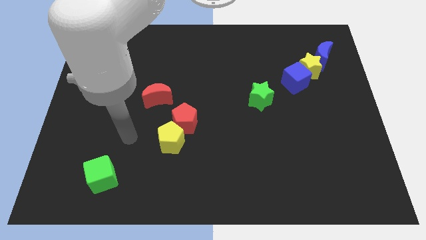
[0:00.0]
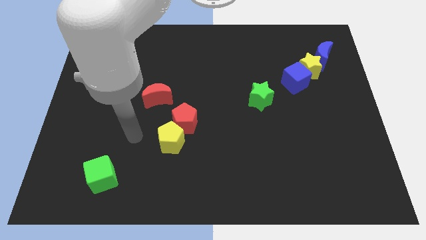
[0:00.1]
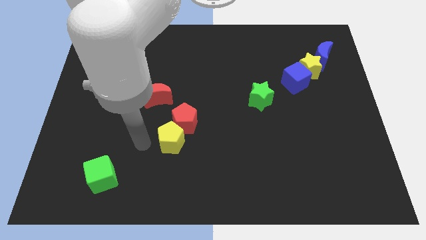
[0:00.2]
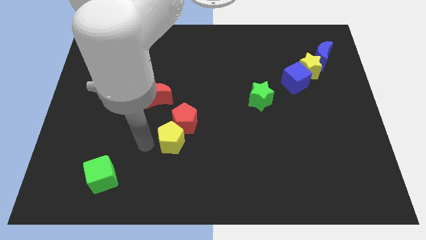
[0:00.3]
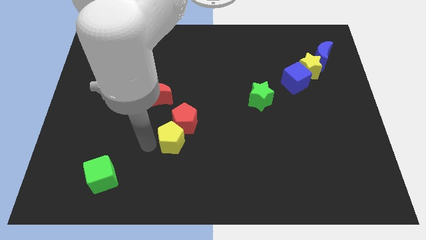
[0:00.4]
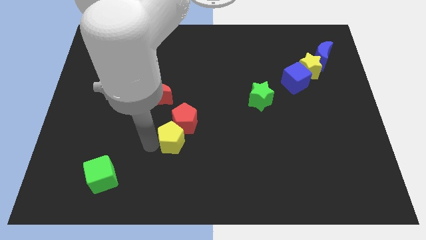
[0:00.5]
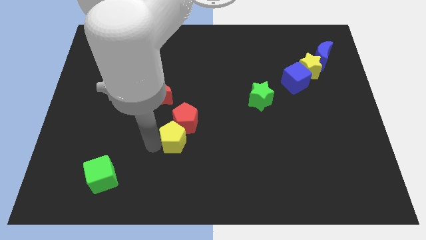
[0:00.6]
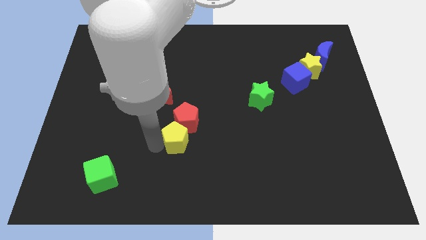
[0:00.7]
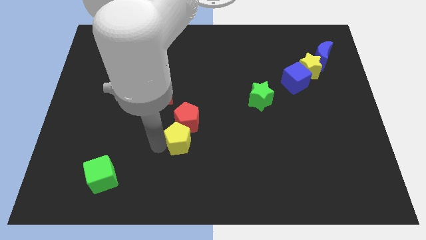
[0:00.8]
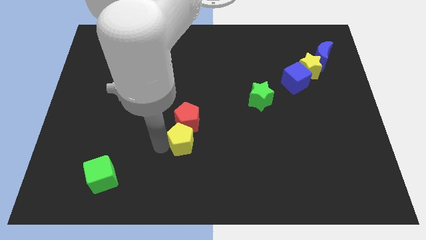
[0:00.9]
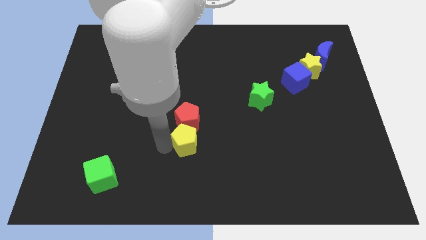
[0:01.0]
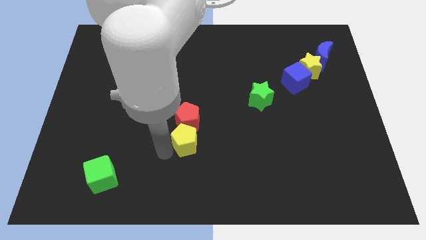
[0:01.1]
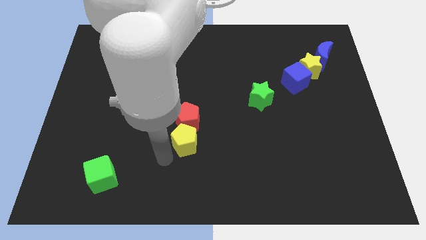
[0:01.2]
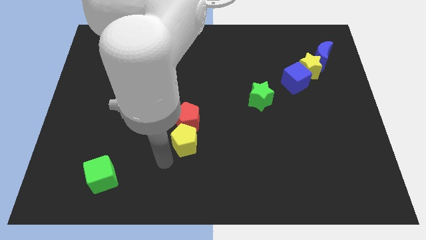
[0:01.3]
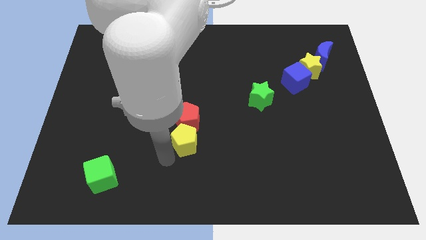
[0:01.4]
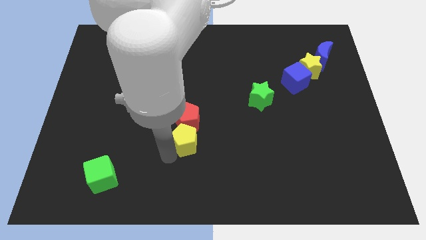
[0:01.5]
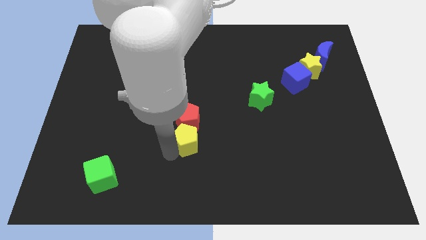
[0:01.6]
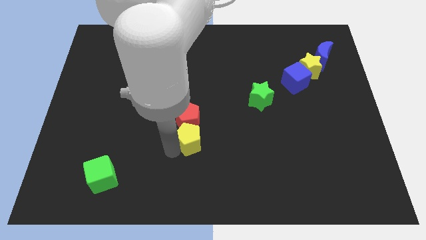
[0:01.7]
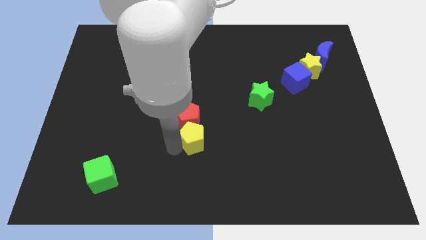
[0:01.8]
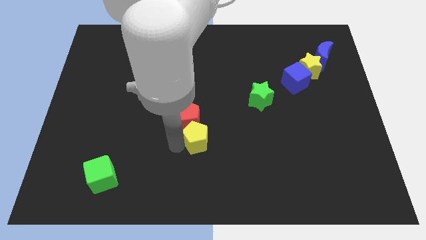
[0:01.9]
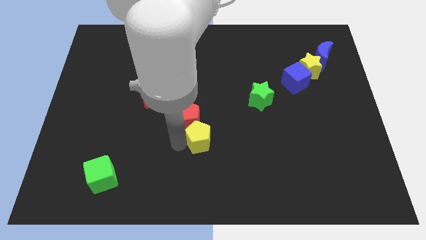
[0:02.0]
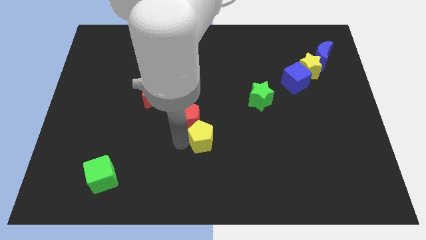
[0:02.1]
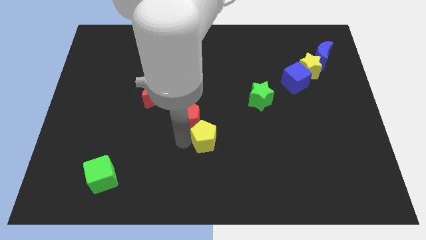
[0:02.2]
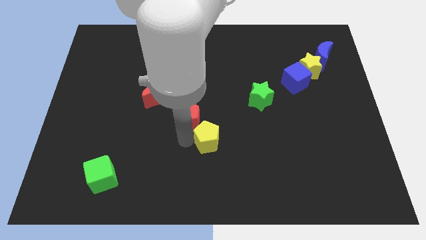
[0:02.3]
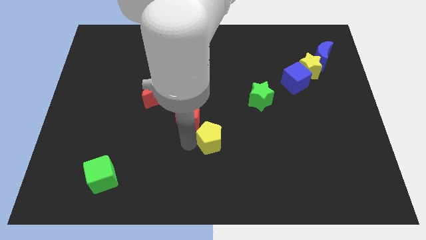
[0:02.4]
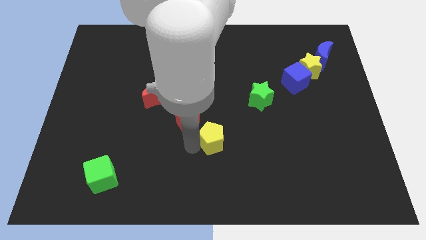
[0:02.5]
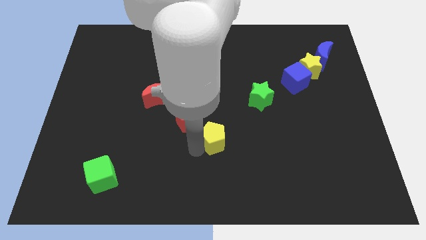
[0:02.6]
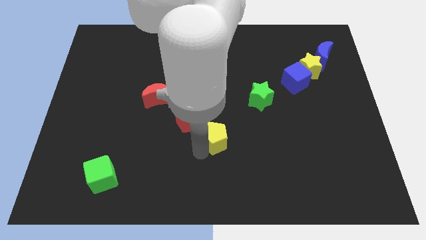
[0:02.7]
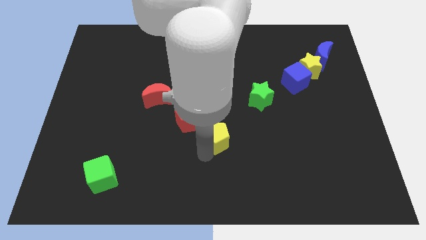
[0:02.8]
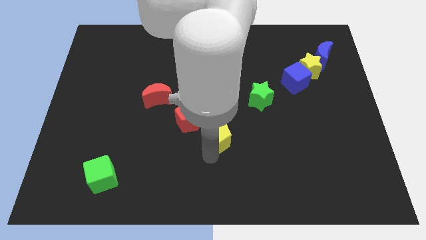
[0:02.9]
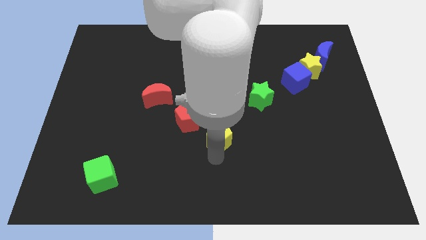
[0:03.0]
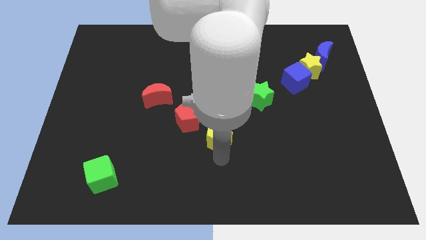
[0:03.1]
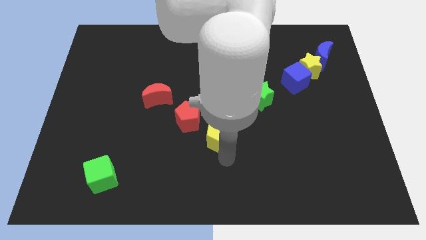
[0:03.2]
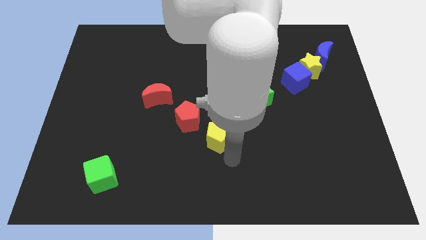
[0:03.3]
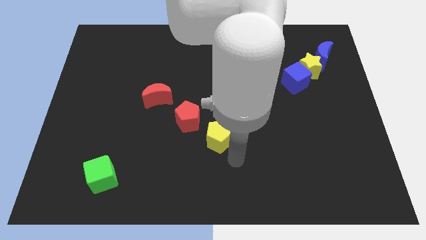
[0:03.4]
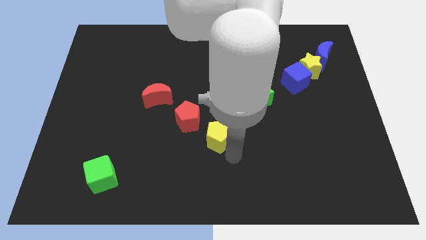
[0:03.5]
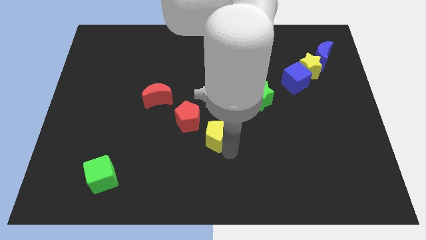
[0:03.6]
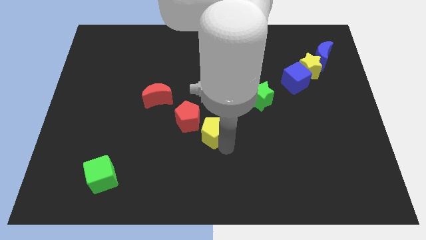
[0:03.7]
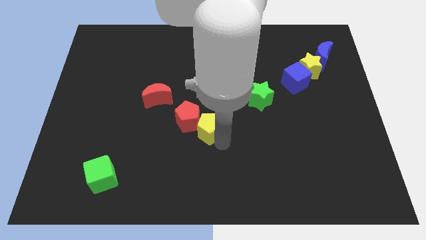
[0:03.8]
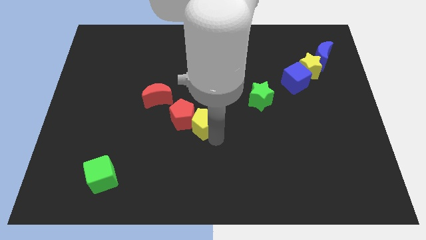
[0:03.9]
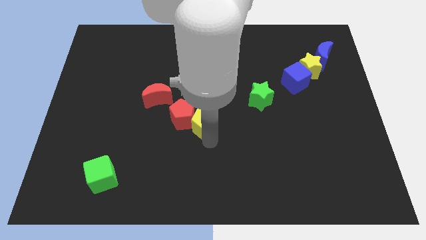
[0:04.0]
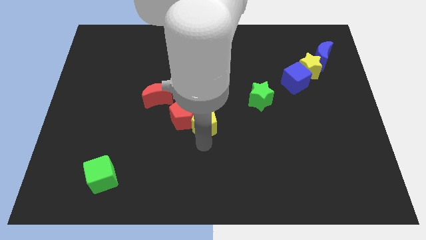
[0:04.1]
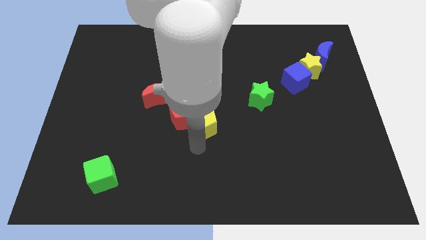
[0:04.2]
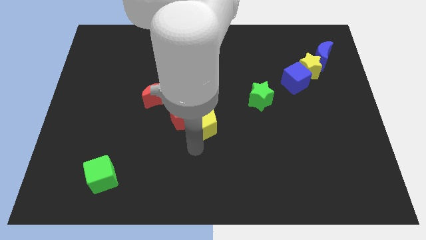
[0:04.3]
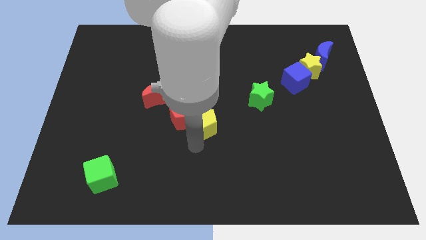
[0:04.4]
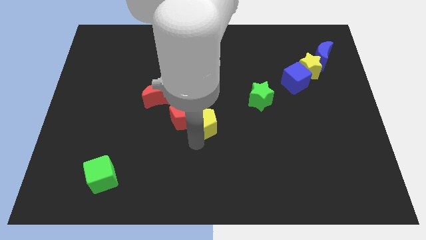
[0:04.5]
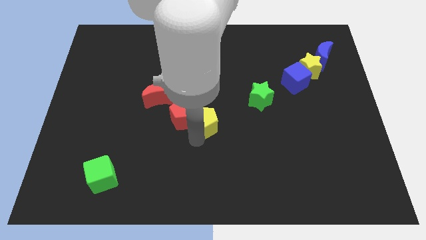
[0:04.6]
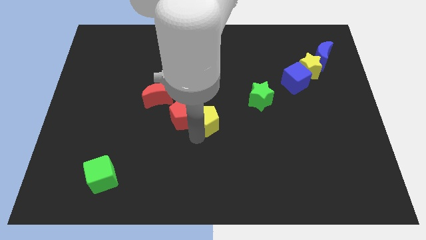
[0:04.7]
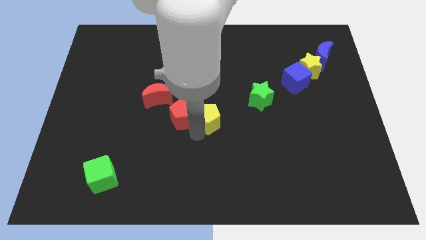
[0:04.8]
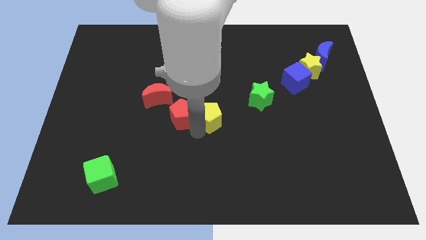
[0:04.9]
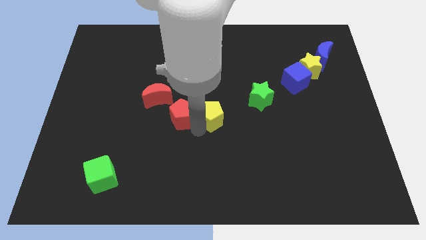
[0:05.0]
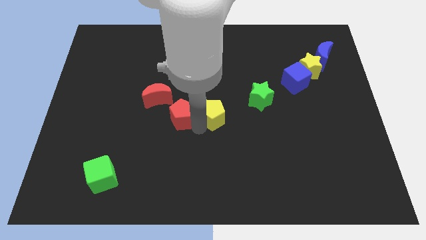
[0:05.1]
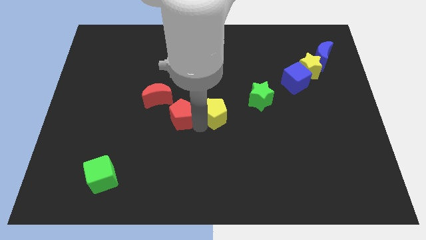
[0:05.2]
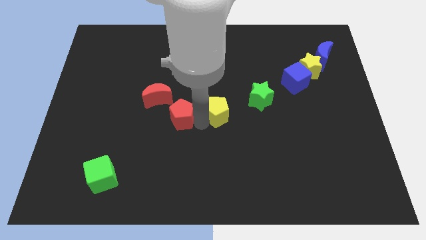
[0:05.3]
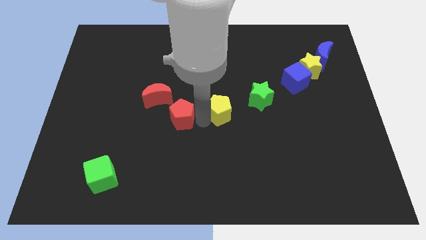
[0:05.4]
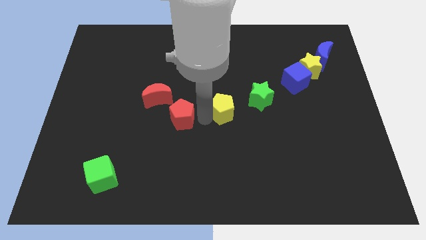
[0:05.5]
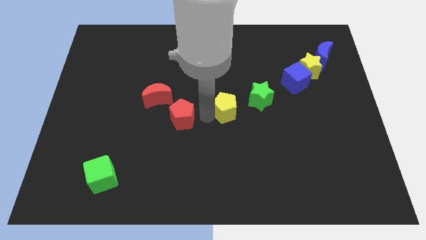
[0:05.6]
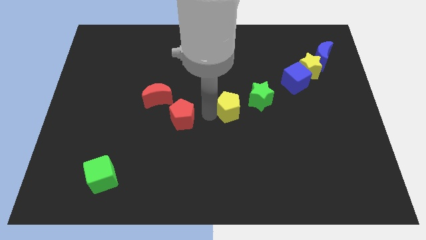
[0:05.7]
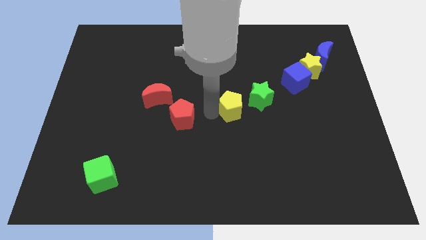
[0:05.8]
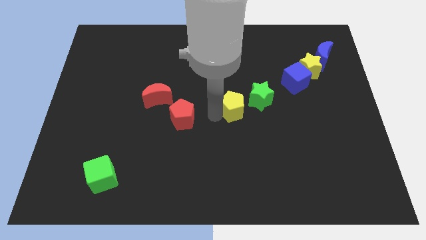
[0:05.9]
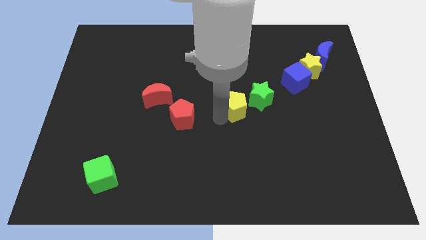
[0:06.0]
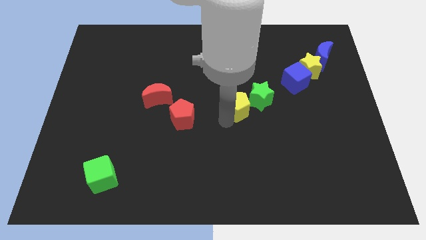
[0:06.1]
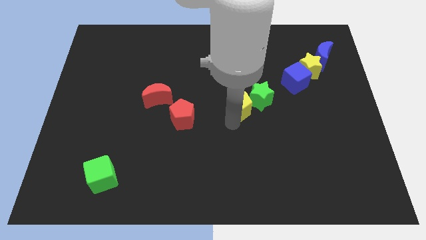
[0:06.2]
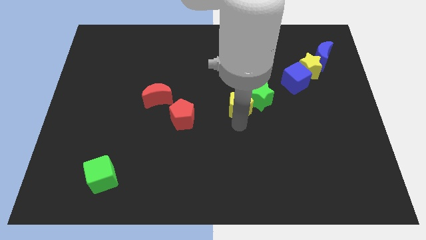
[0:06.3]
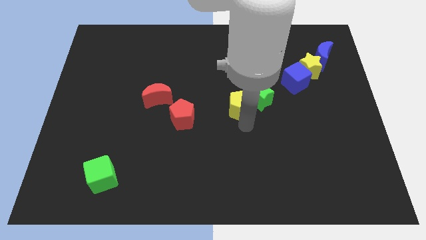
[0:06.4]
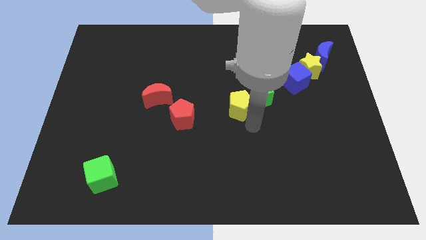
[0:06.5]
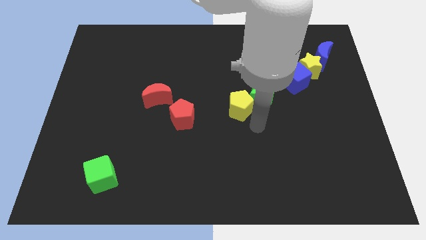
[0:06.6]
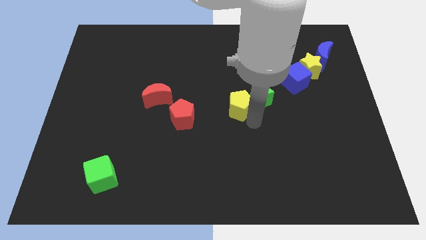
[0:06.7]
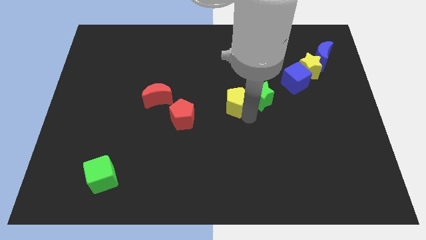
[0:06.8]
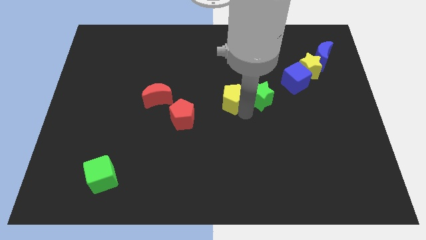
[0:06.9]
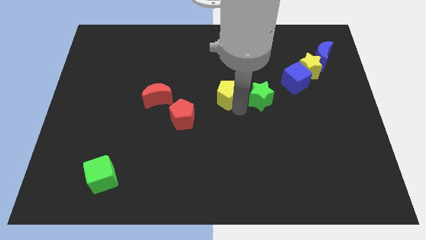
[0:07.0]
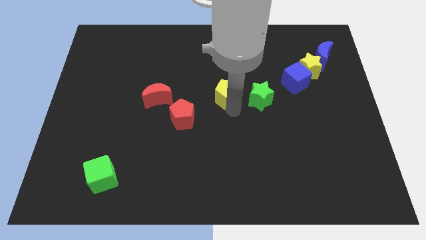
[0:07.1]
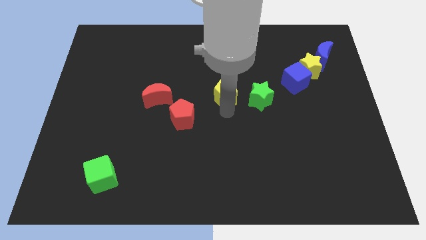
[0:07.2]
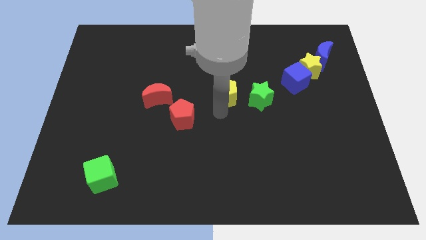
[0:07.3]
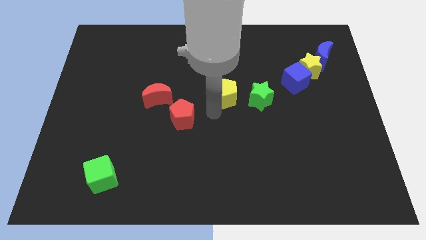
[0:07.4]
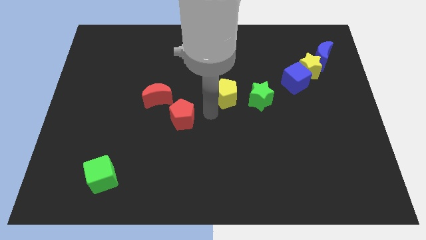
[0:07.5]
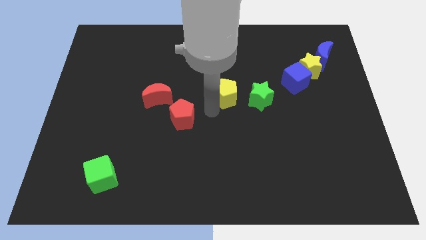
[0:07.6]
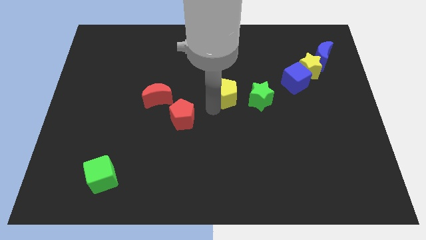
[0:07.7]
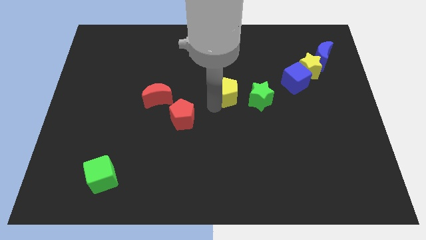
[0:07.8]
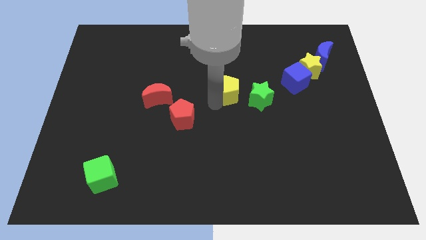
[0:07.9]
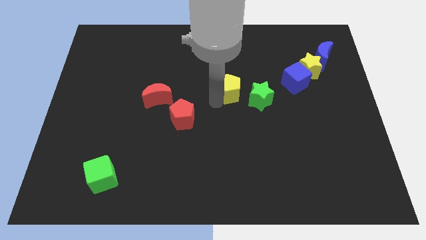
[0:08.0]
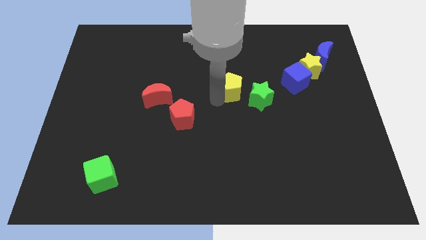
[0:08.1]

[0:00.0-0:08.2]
push the yellow pentagon upwards and to the right diagonally
